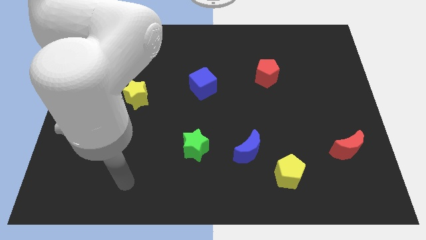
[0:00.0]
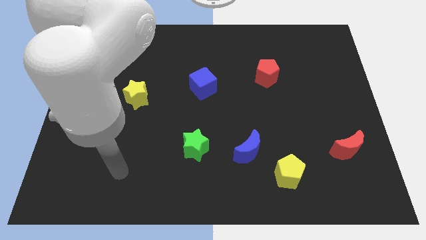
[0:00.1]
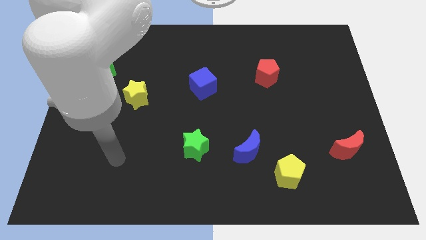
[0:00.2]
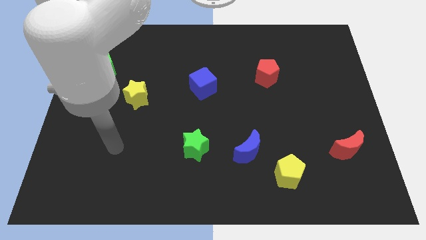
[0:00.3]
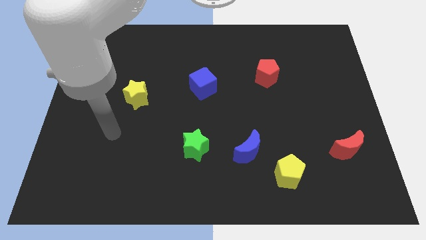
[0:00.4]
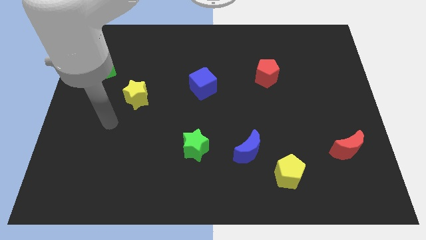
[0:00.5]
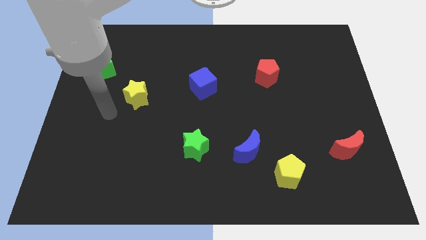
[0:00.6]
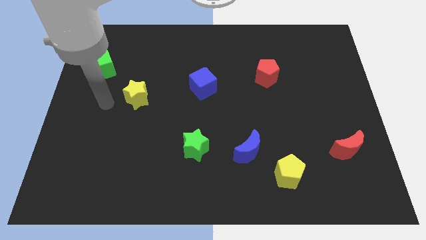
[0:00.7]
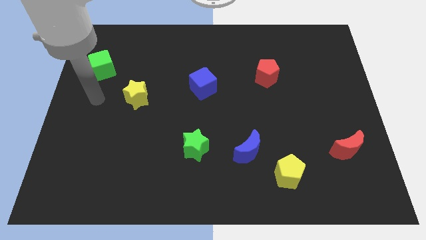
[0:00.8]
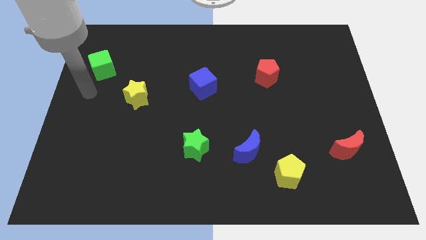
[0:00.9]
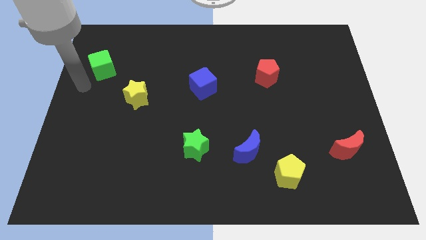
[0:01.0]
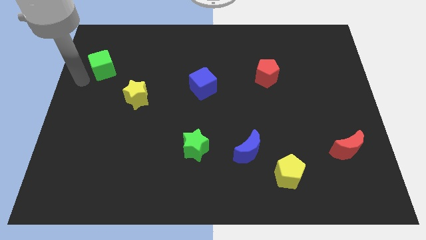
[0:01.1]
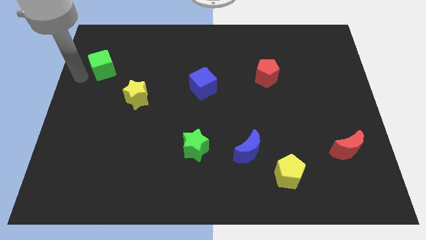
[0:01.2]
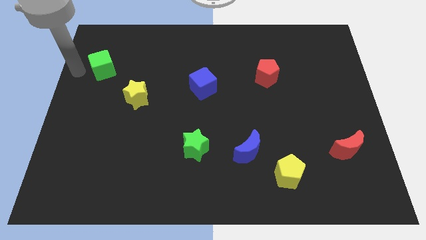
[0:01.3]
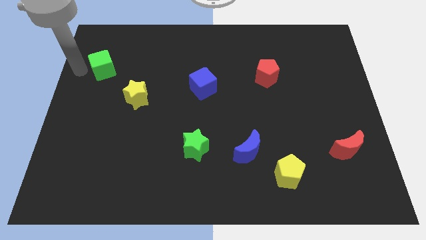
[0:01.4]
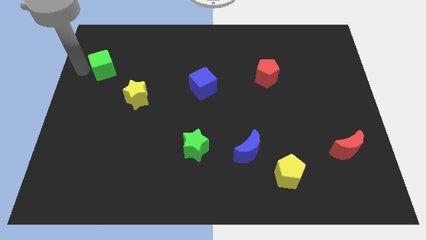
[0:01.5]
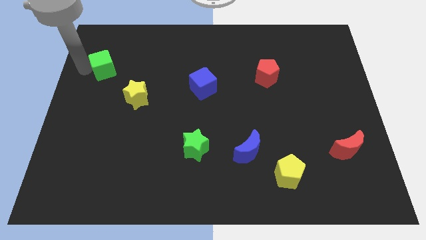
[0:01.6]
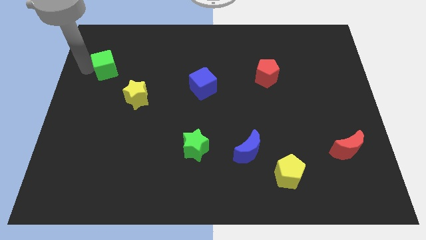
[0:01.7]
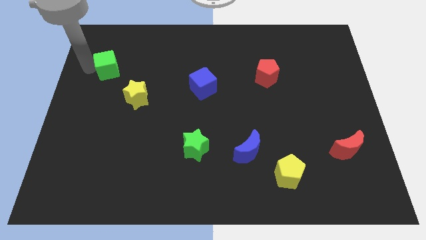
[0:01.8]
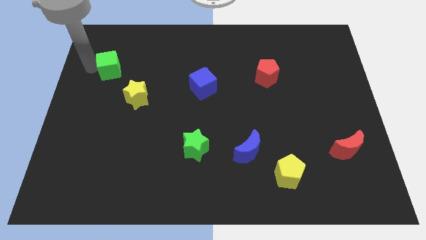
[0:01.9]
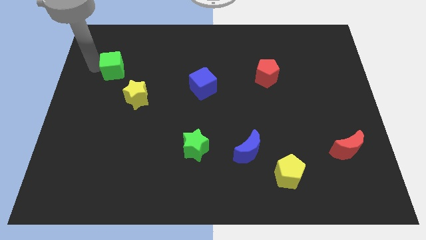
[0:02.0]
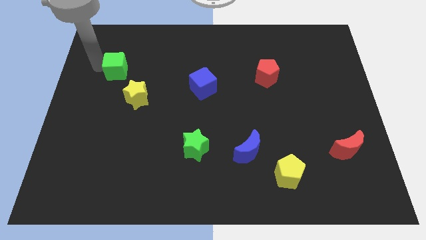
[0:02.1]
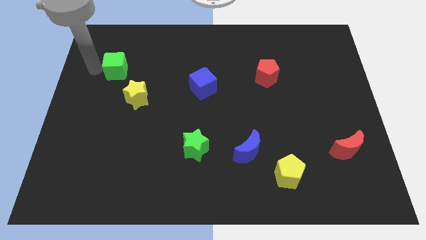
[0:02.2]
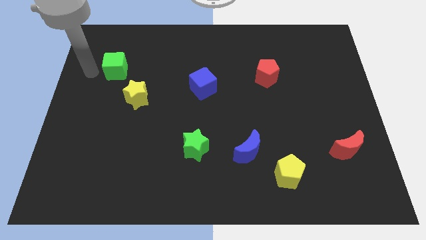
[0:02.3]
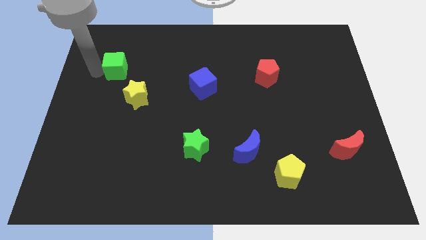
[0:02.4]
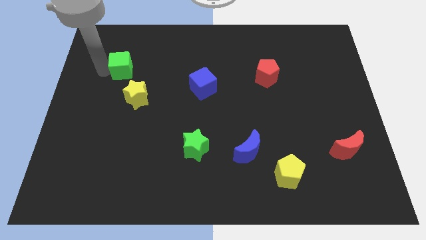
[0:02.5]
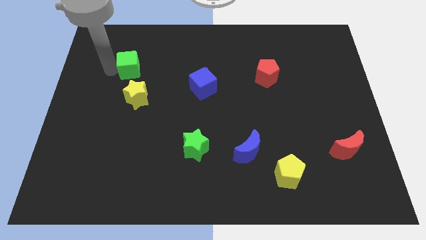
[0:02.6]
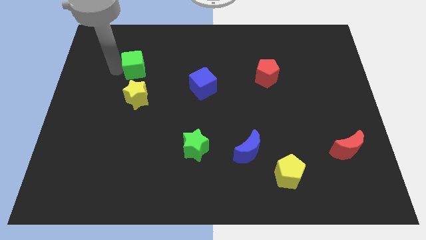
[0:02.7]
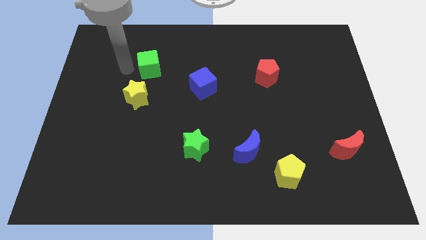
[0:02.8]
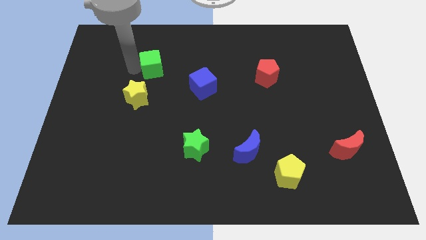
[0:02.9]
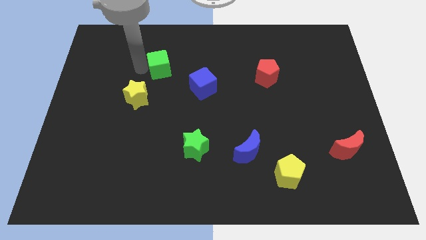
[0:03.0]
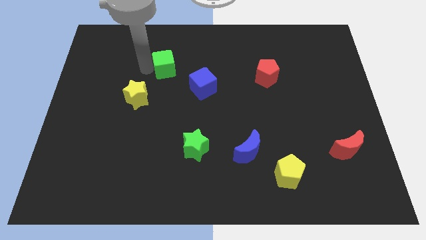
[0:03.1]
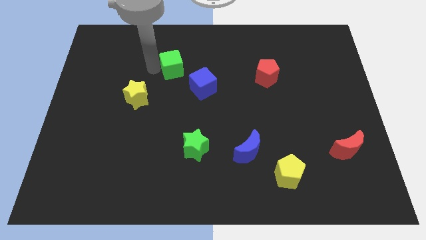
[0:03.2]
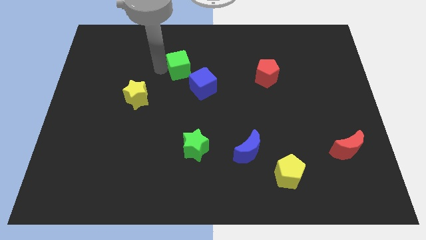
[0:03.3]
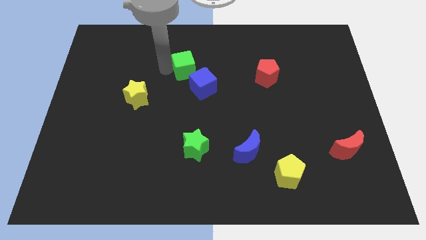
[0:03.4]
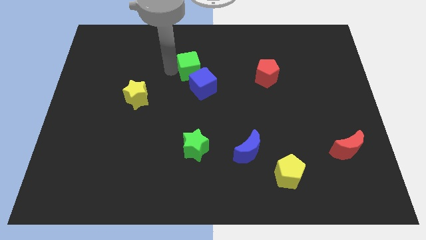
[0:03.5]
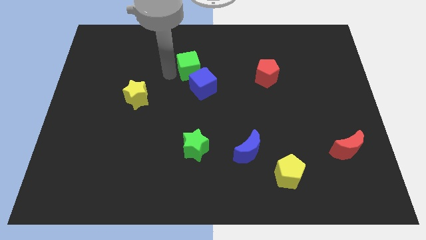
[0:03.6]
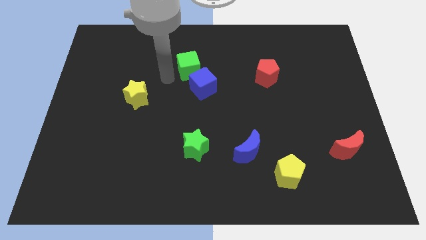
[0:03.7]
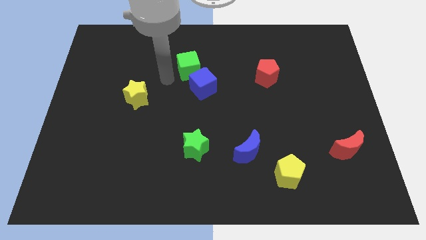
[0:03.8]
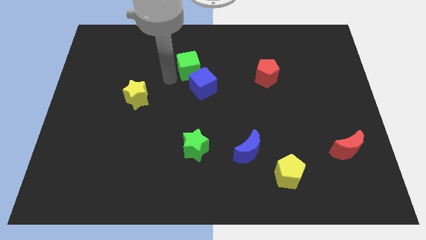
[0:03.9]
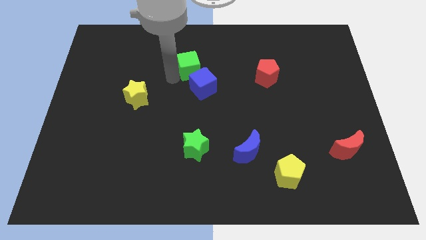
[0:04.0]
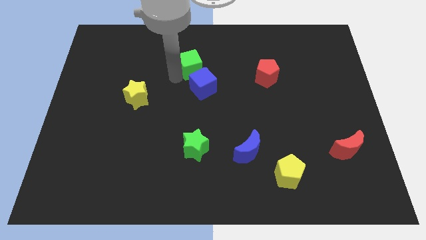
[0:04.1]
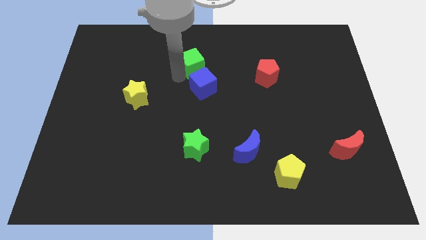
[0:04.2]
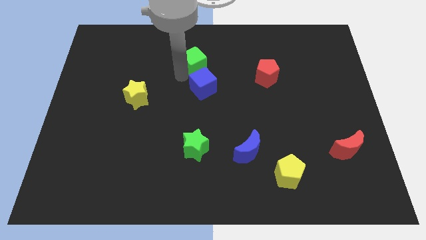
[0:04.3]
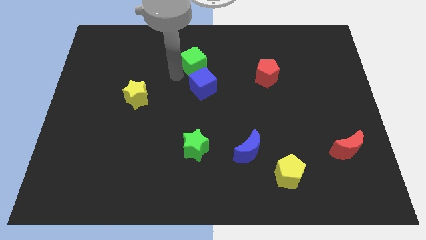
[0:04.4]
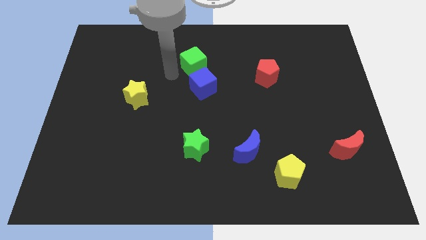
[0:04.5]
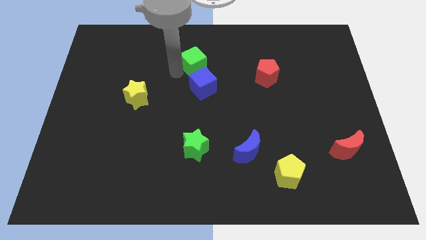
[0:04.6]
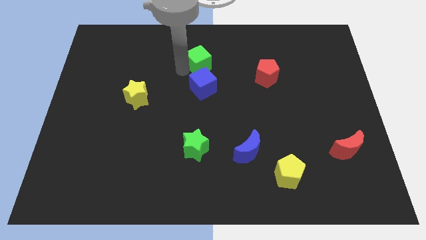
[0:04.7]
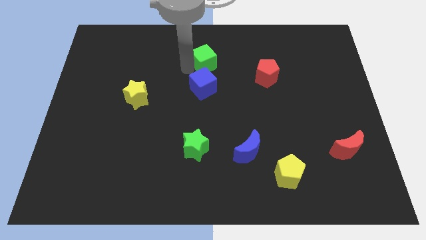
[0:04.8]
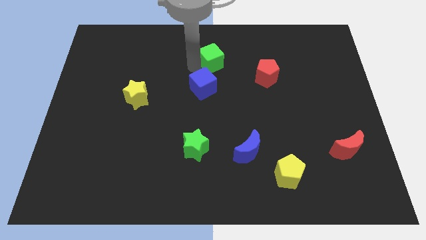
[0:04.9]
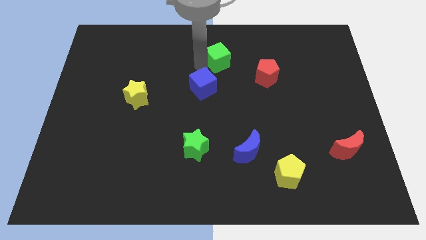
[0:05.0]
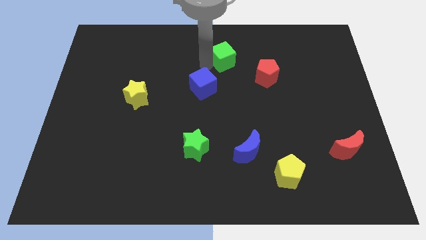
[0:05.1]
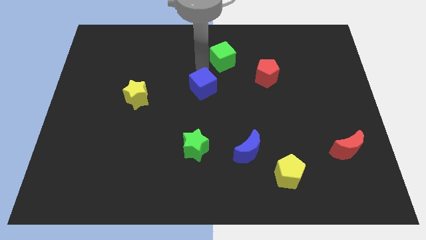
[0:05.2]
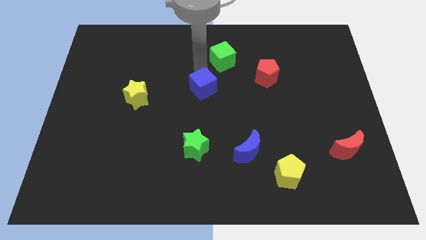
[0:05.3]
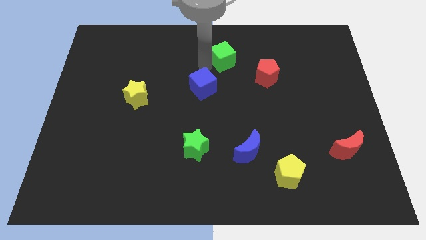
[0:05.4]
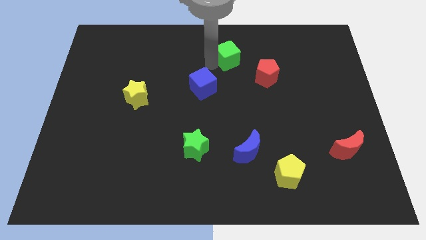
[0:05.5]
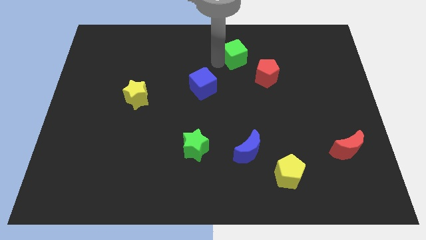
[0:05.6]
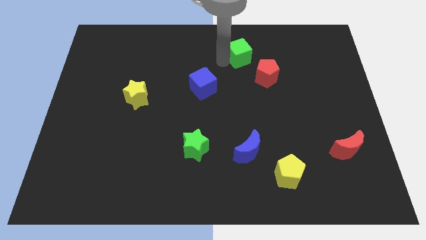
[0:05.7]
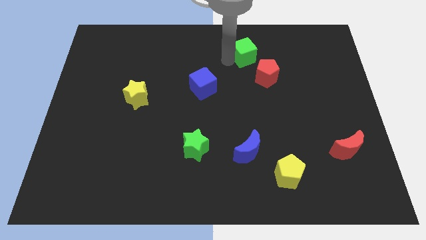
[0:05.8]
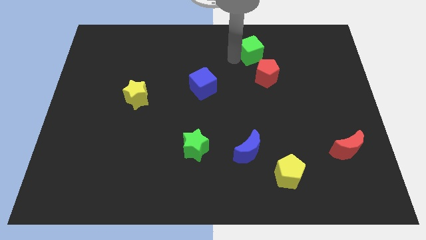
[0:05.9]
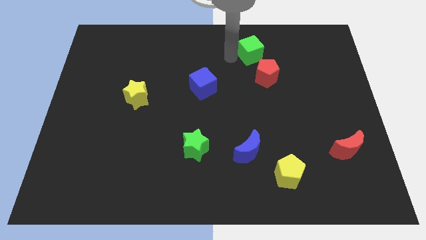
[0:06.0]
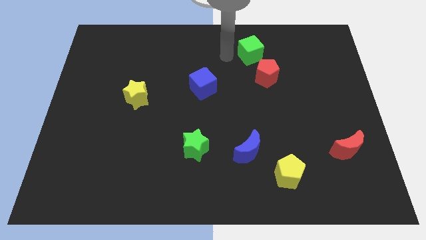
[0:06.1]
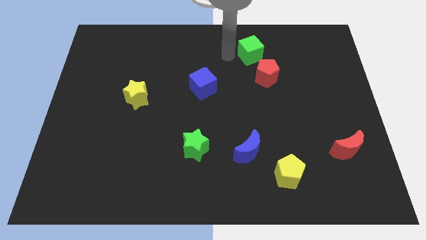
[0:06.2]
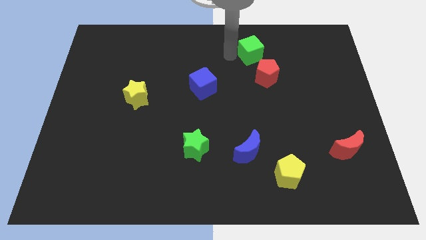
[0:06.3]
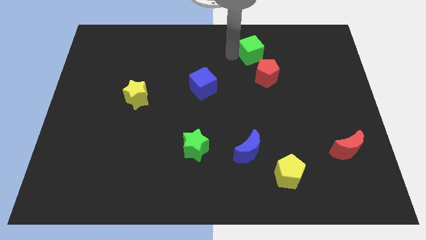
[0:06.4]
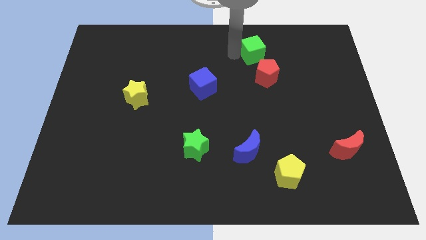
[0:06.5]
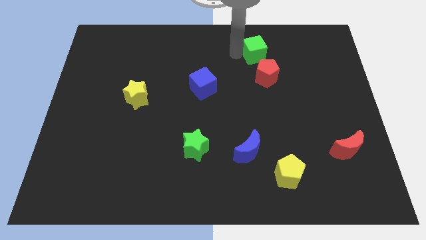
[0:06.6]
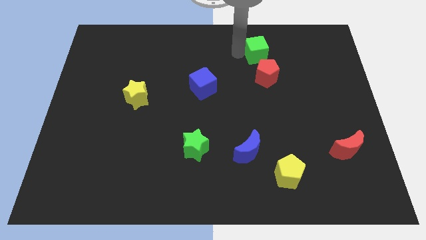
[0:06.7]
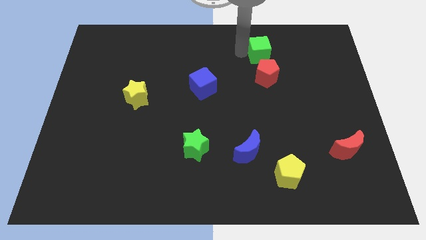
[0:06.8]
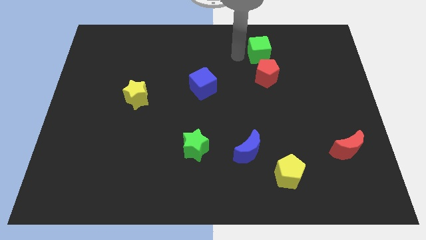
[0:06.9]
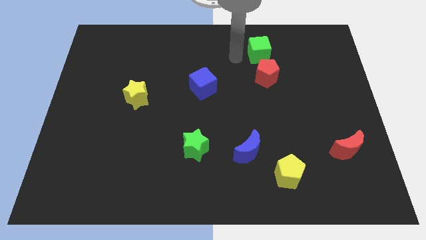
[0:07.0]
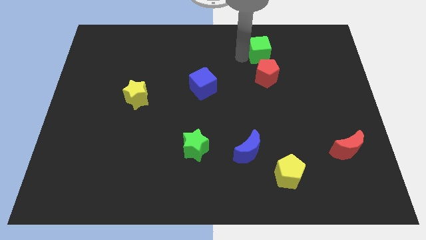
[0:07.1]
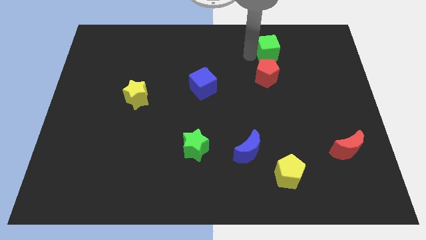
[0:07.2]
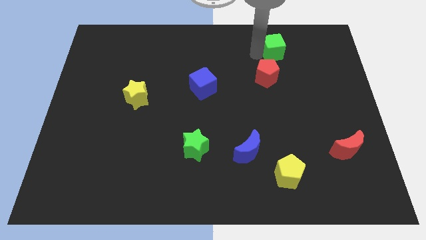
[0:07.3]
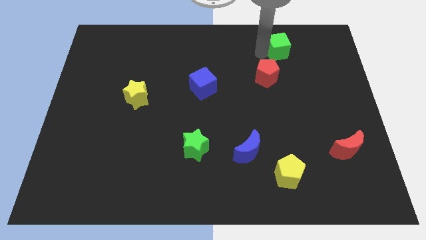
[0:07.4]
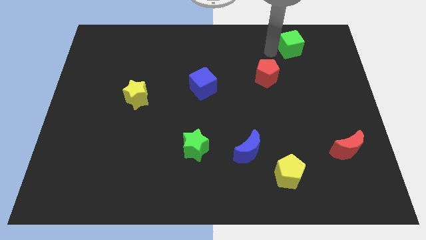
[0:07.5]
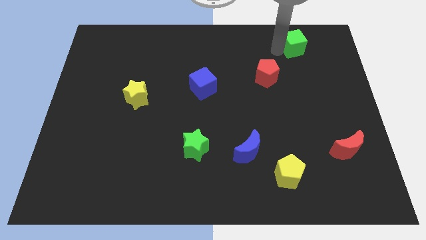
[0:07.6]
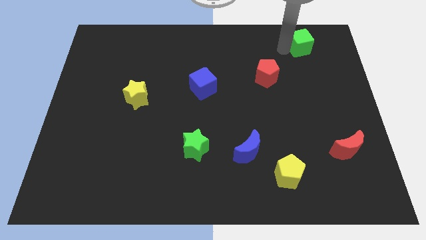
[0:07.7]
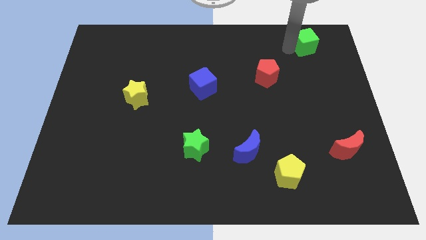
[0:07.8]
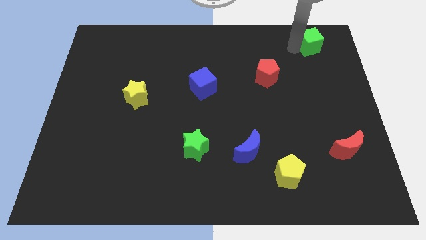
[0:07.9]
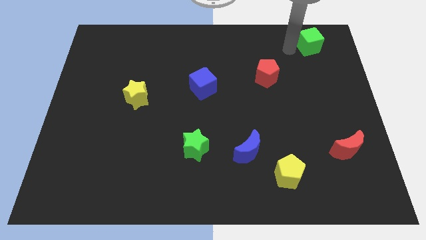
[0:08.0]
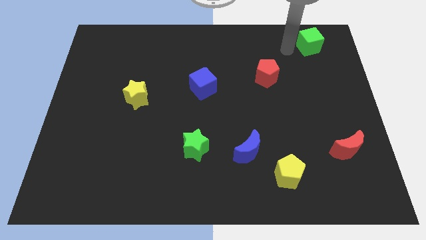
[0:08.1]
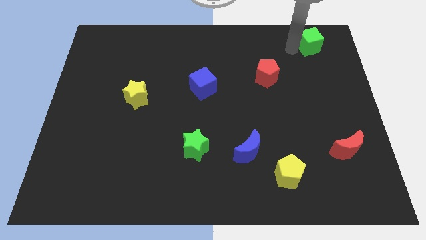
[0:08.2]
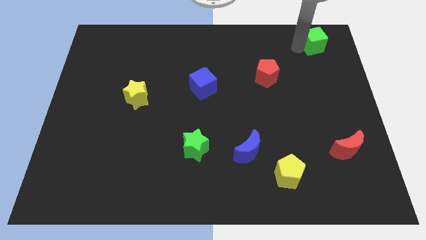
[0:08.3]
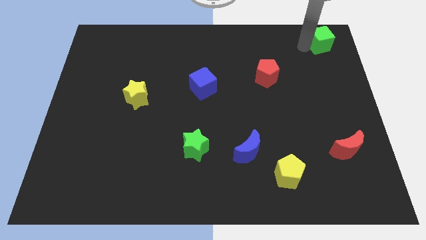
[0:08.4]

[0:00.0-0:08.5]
push the green cube to the upper right corner
